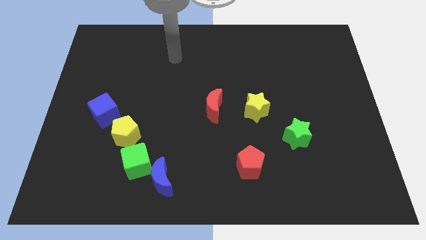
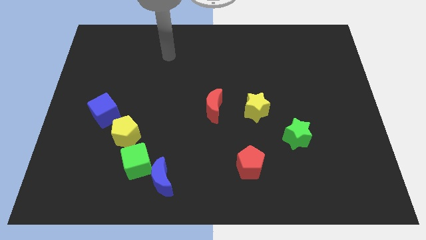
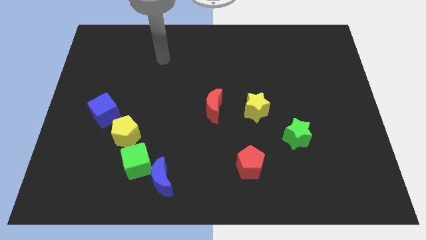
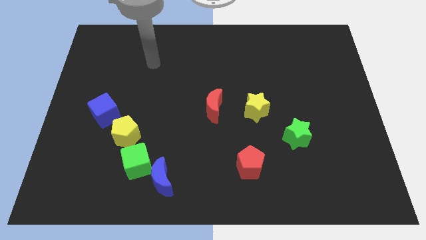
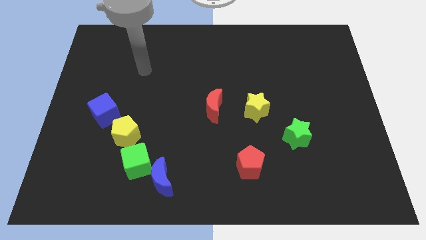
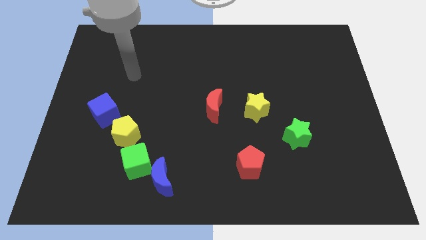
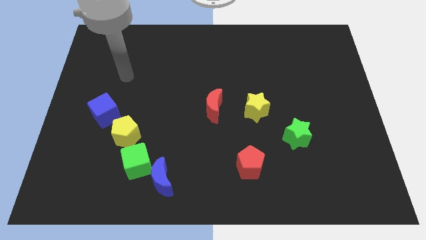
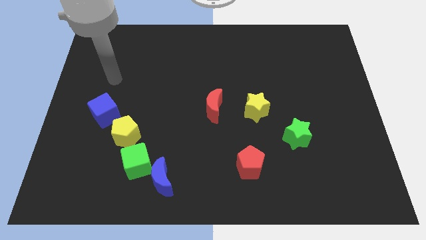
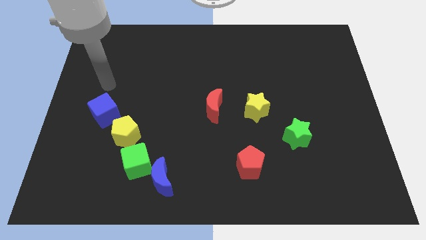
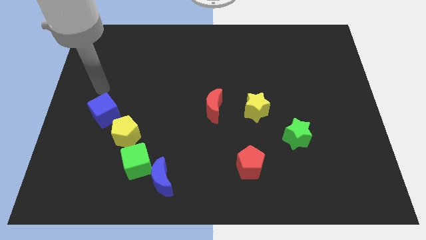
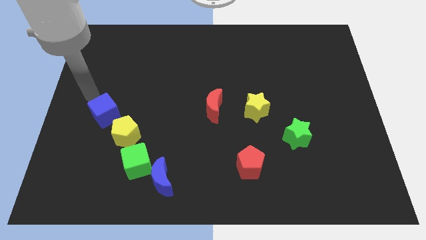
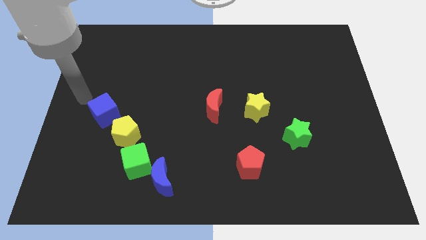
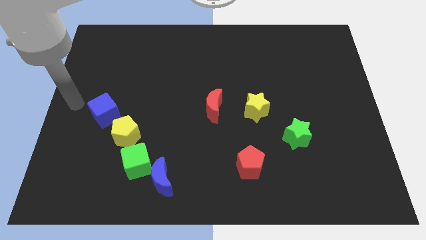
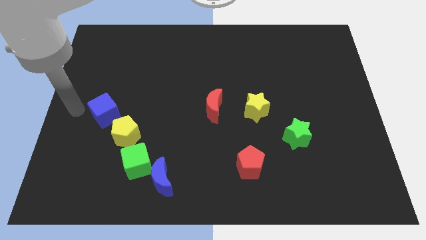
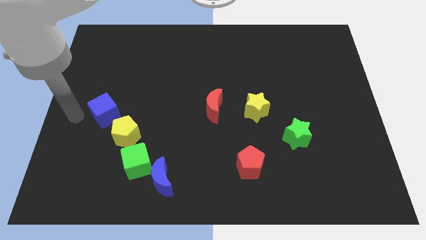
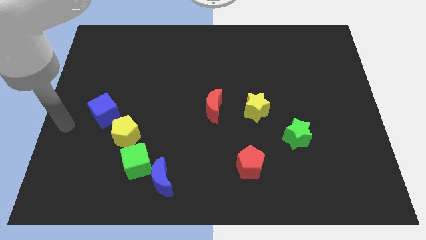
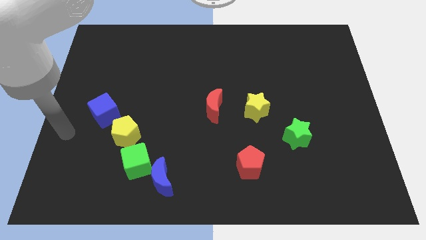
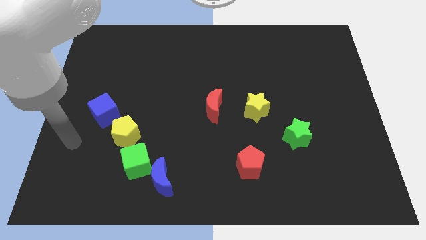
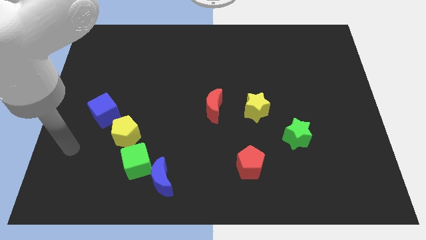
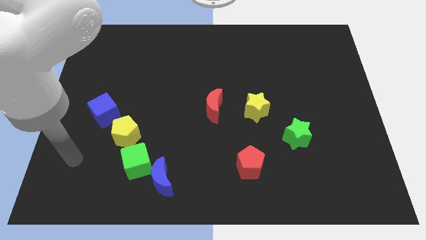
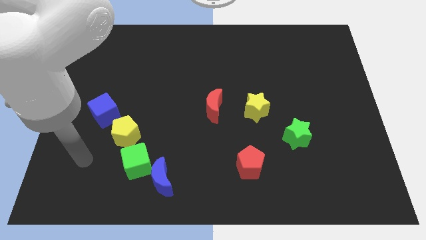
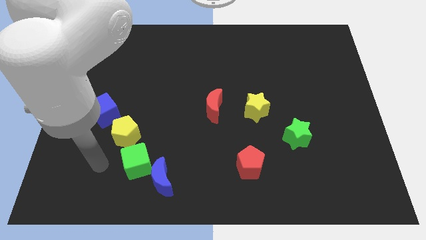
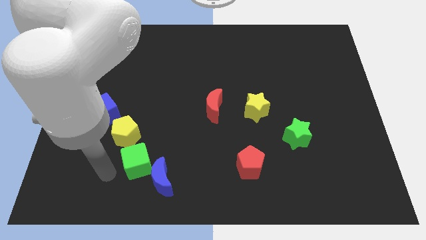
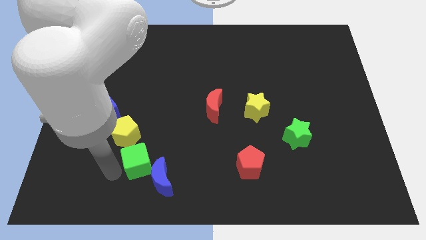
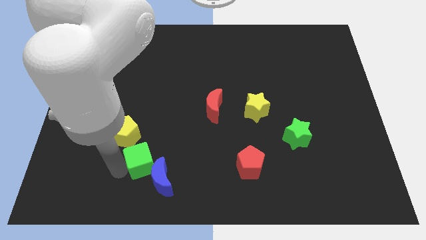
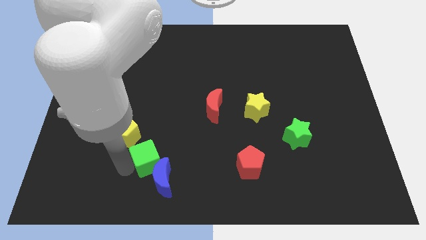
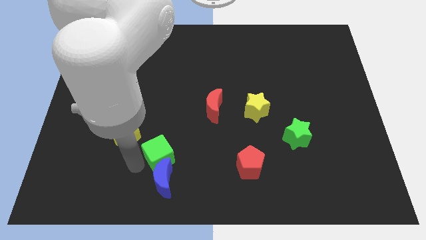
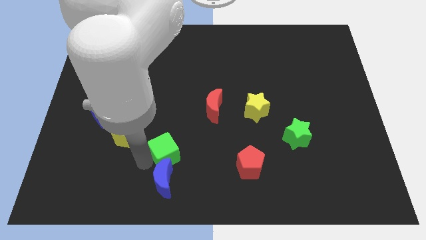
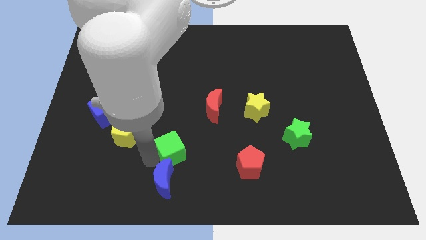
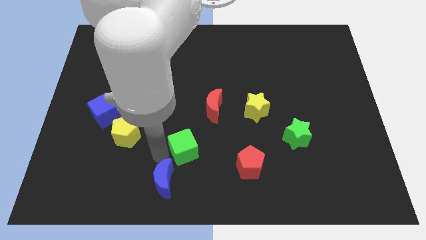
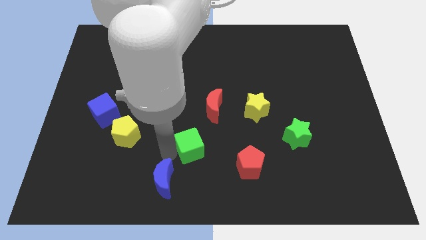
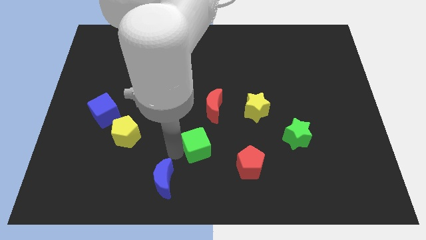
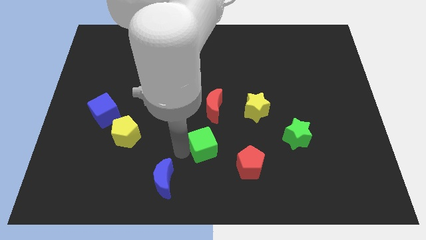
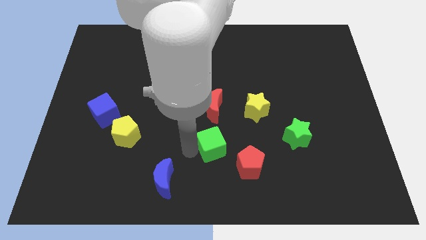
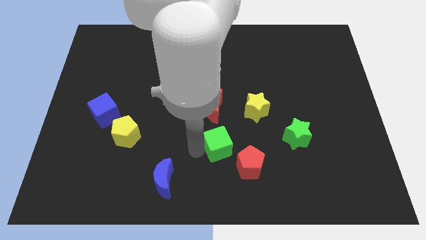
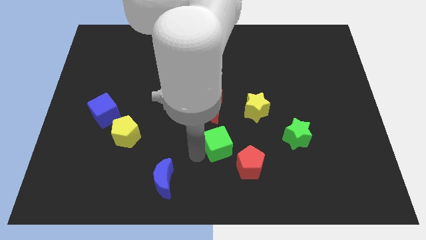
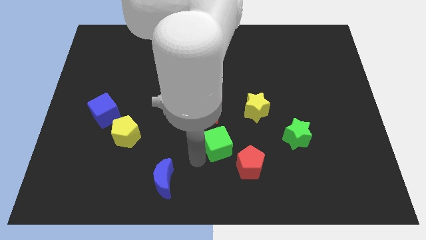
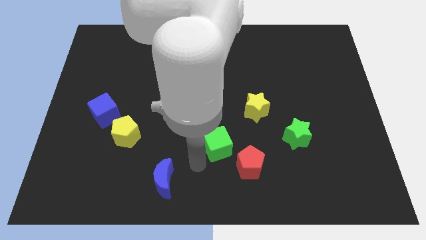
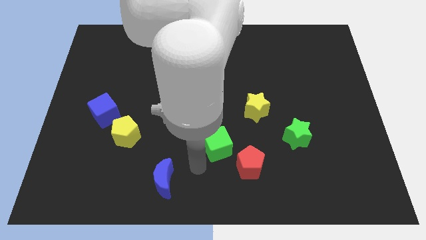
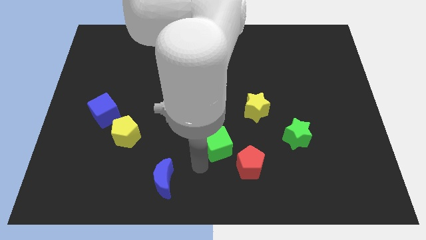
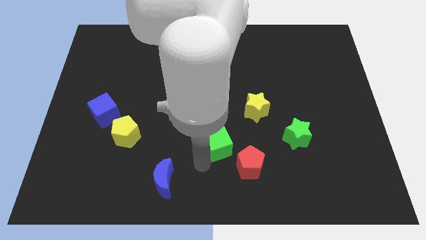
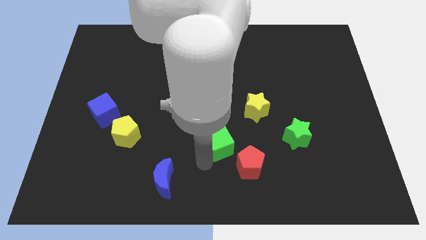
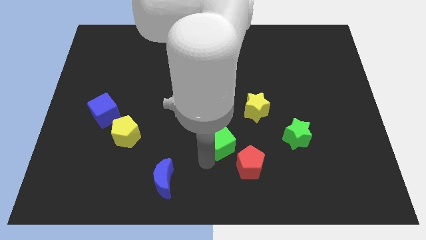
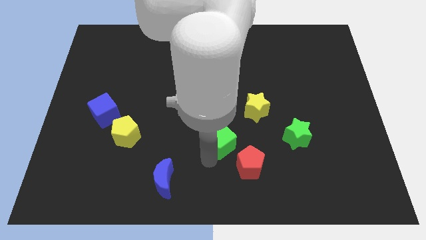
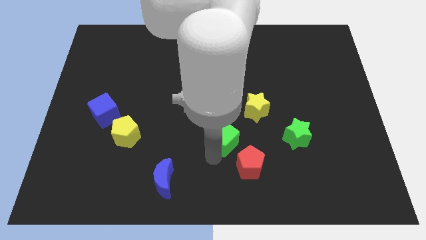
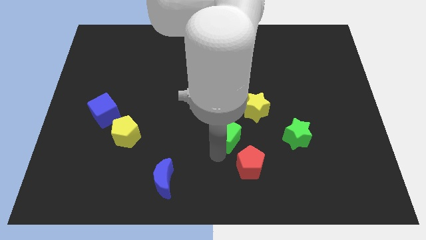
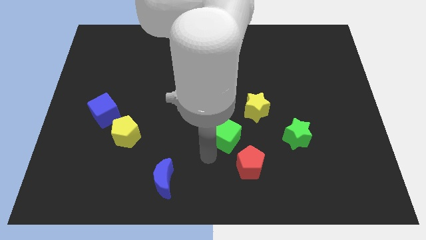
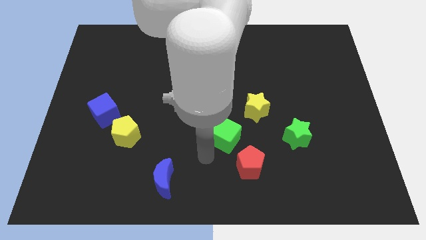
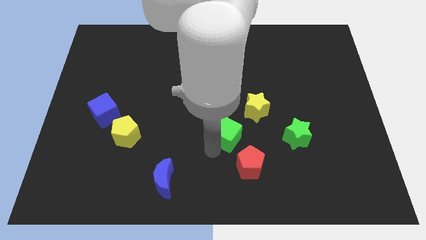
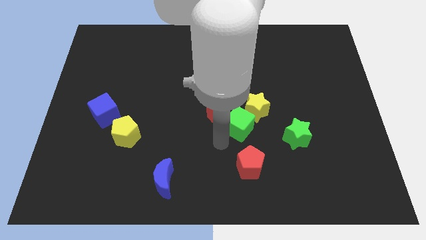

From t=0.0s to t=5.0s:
slide the green cube next to the yellow star

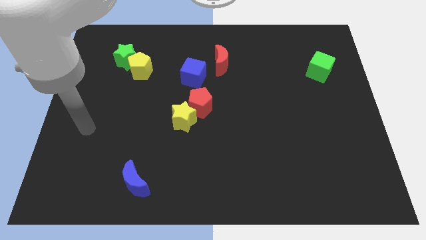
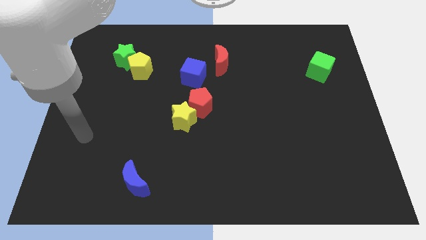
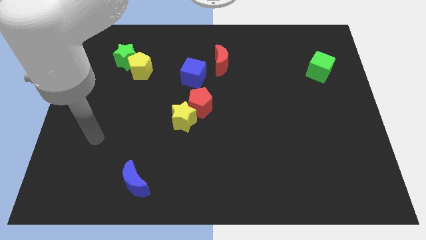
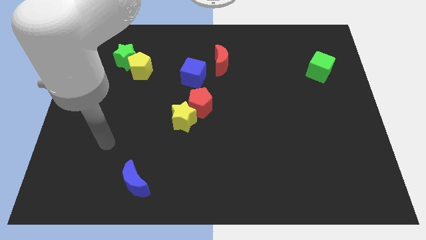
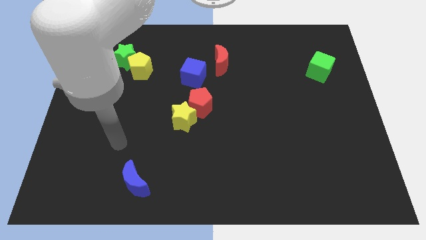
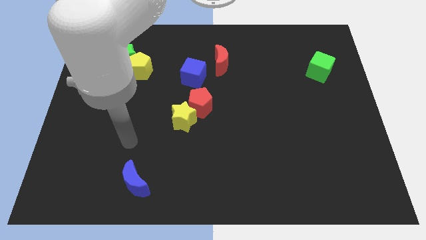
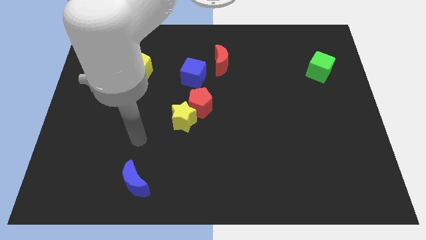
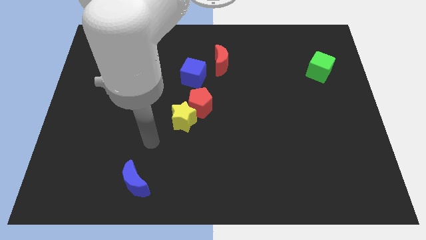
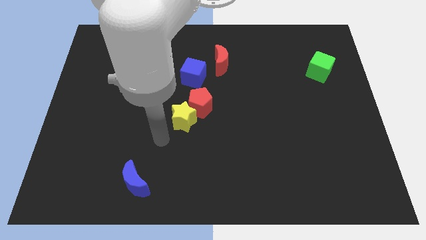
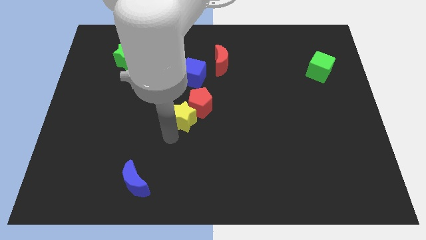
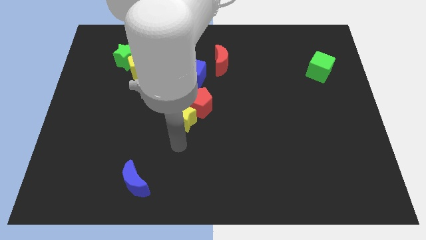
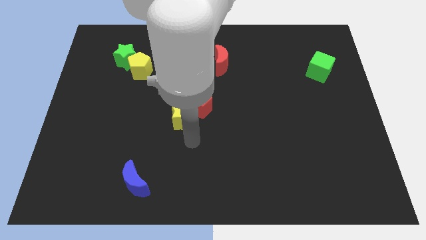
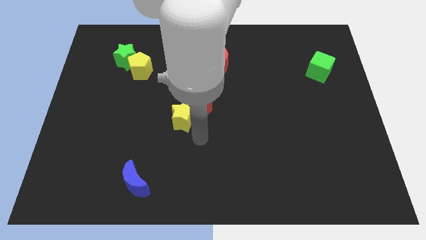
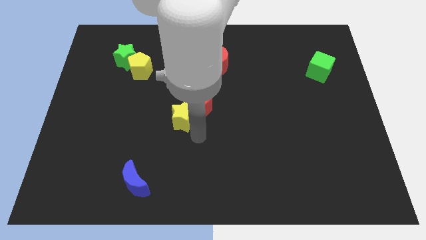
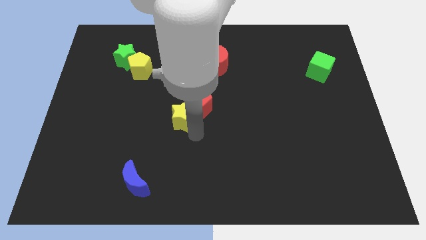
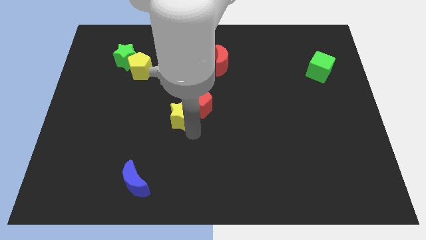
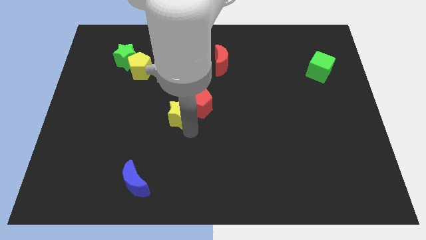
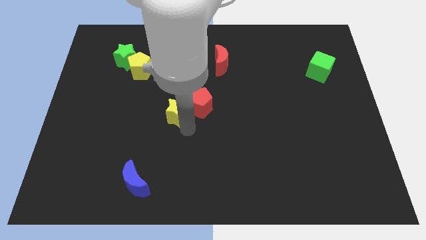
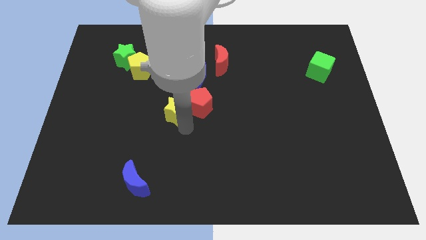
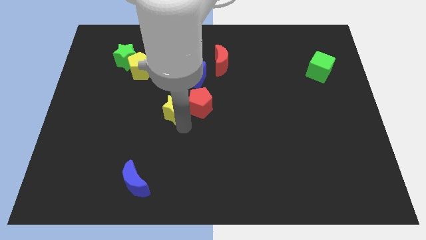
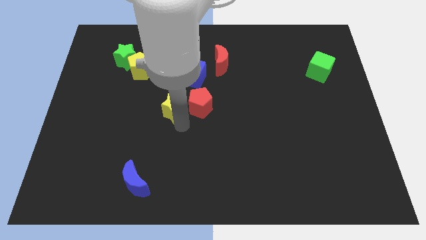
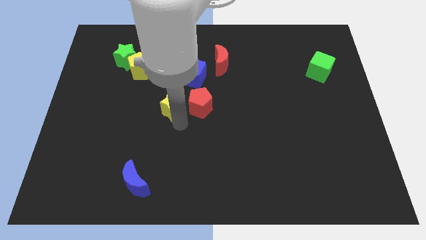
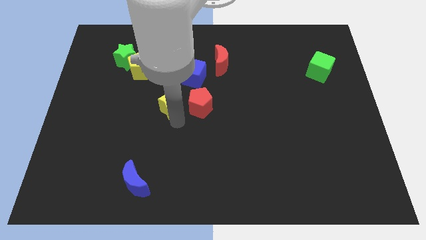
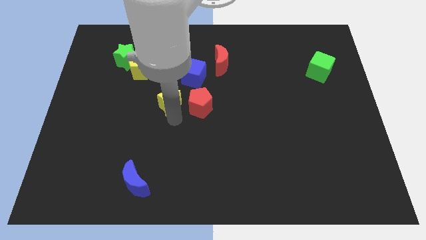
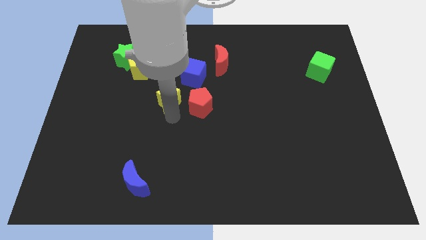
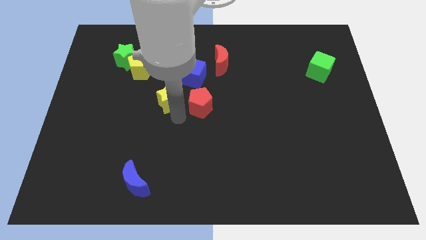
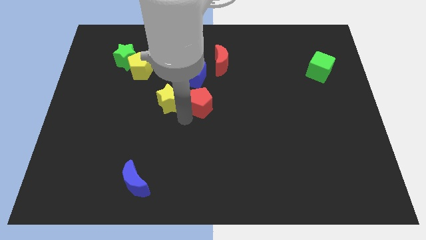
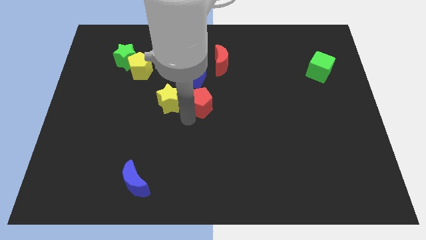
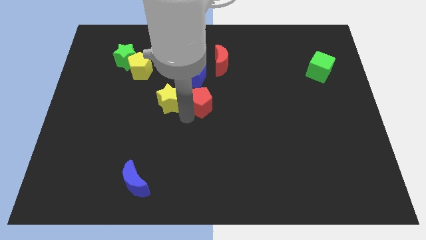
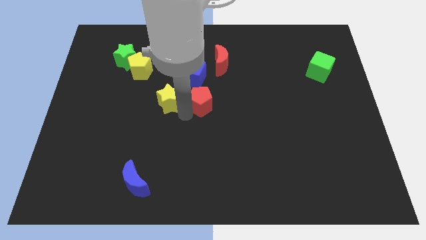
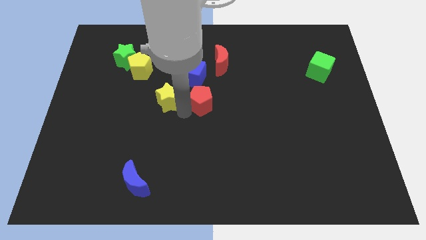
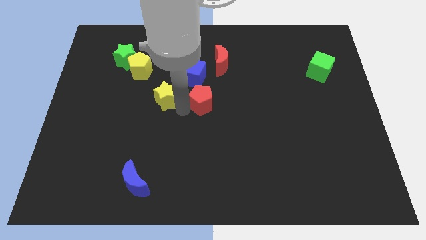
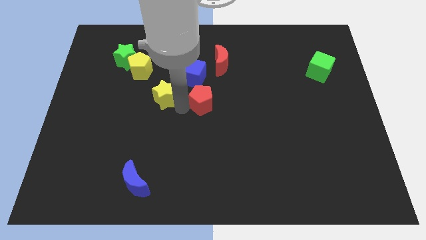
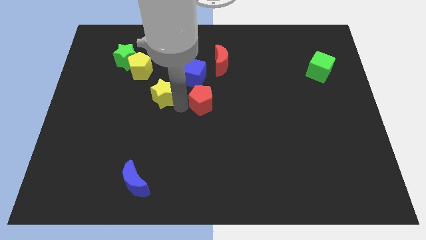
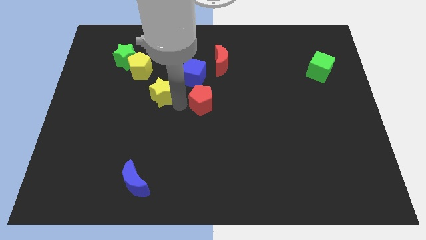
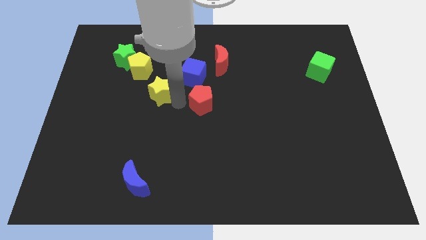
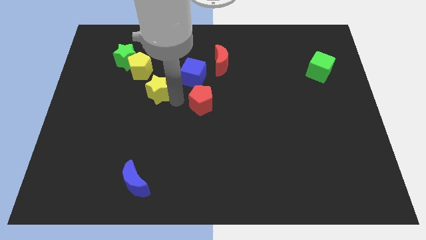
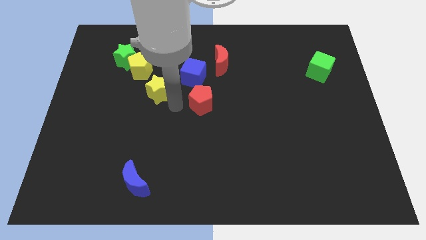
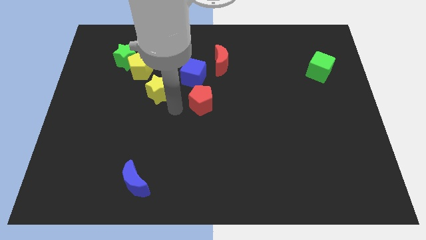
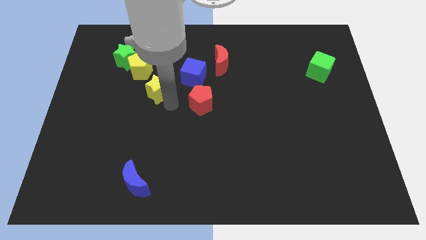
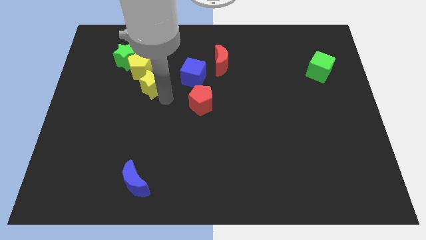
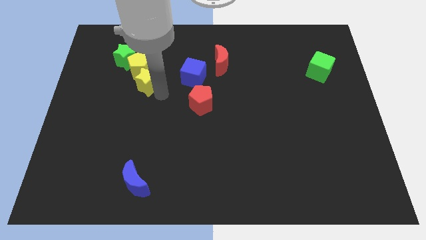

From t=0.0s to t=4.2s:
slide the yellow star to the yellow pentagon
